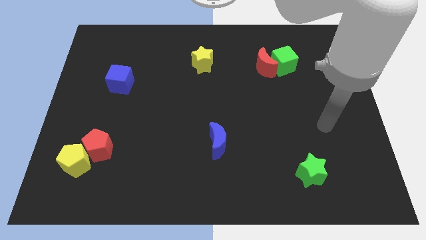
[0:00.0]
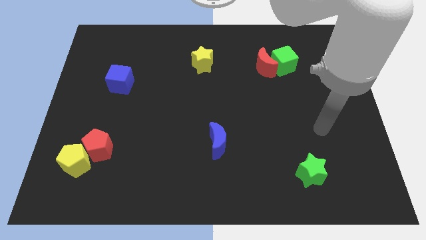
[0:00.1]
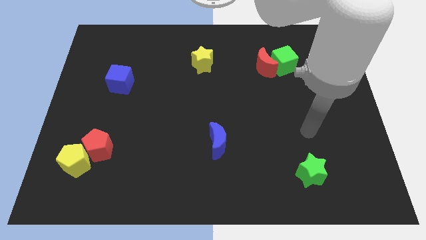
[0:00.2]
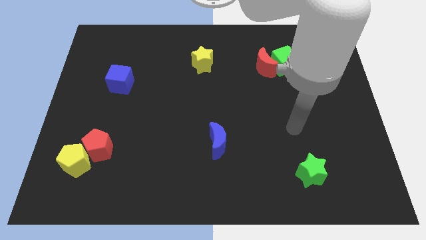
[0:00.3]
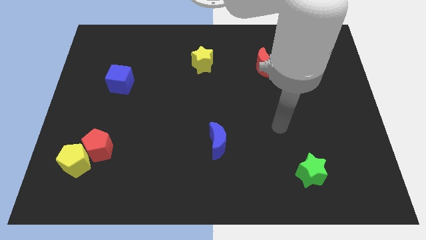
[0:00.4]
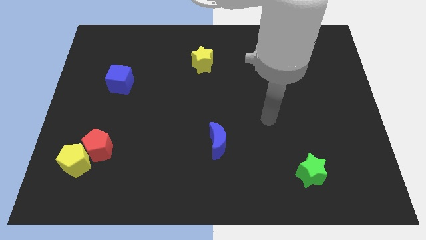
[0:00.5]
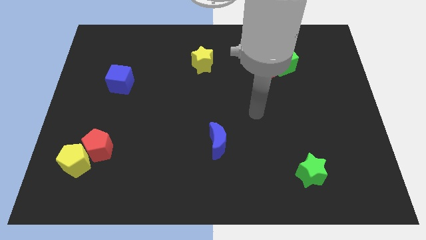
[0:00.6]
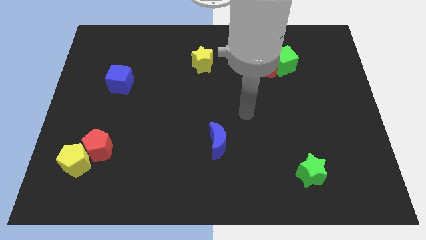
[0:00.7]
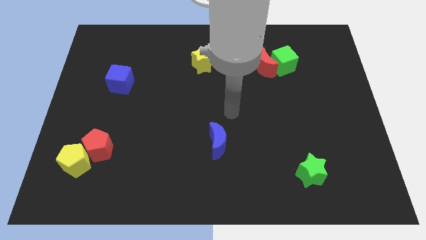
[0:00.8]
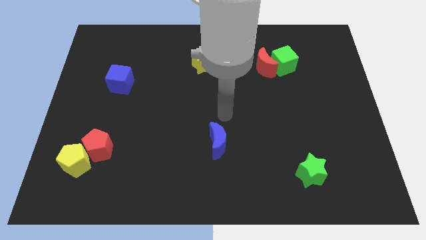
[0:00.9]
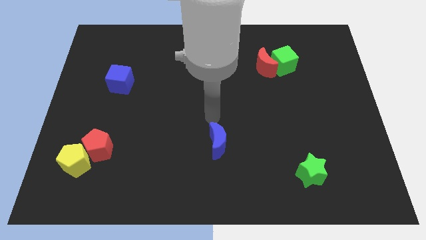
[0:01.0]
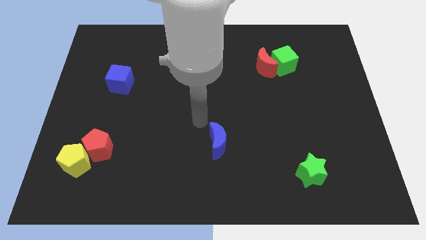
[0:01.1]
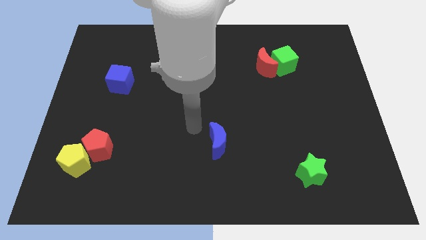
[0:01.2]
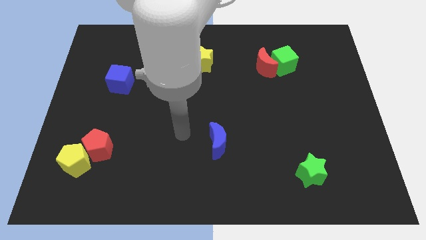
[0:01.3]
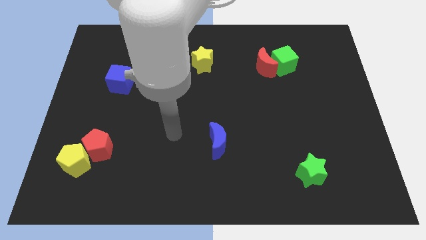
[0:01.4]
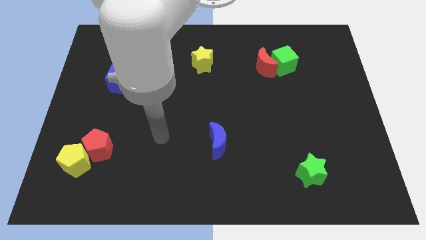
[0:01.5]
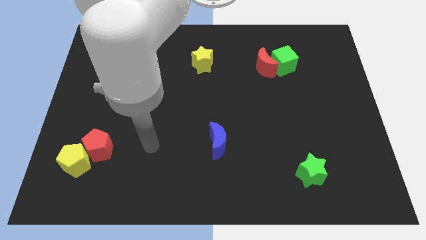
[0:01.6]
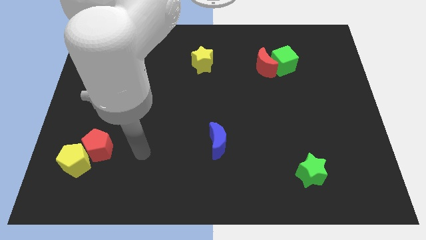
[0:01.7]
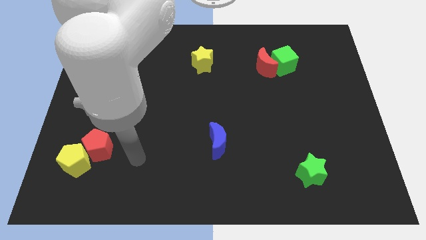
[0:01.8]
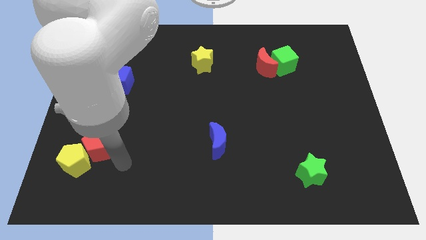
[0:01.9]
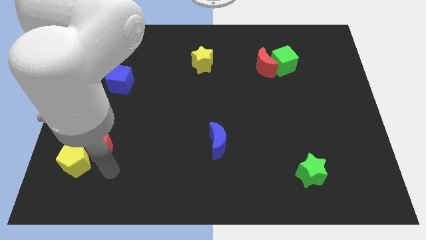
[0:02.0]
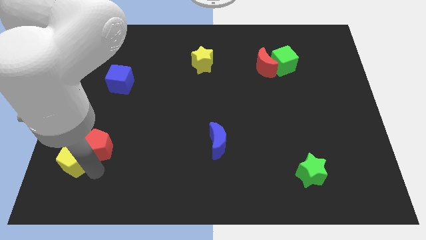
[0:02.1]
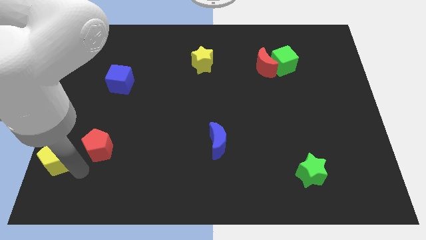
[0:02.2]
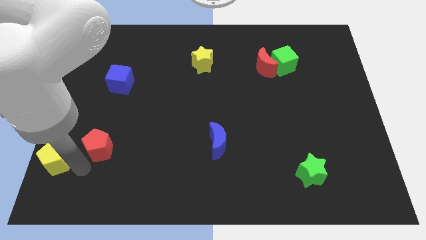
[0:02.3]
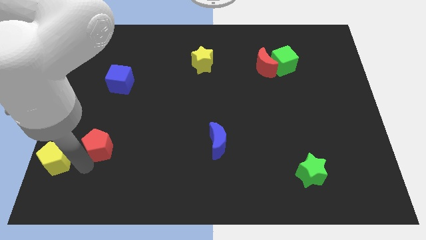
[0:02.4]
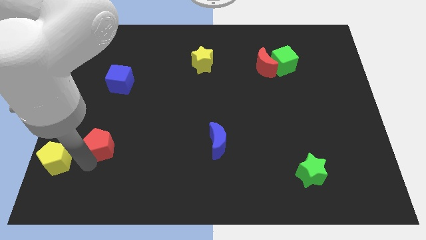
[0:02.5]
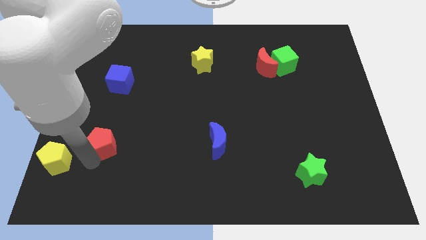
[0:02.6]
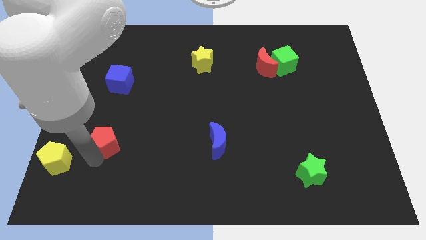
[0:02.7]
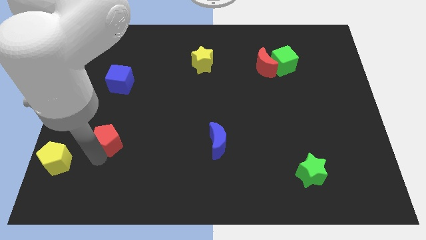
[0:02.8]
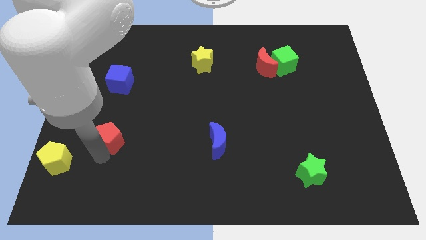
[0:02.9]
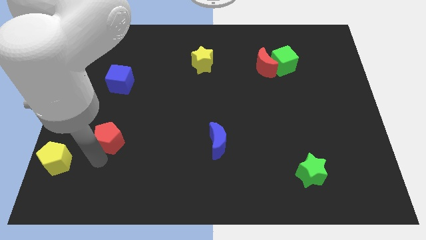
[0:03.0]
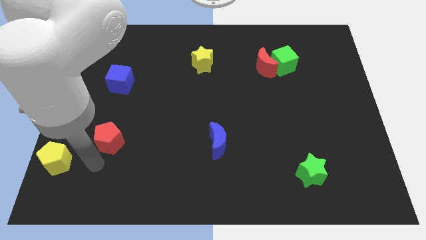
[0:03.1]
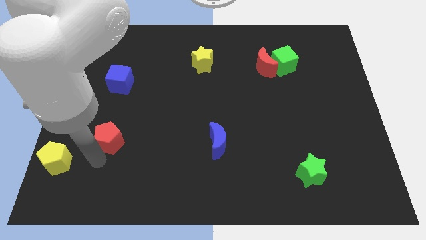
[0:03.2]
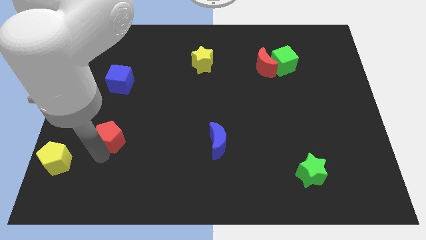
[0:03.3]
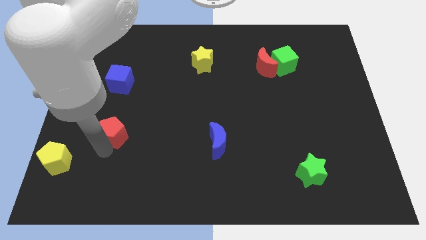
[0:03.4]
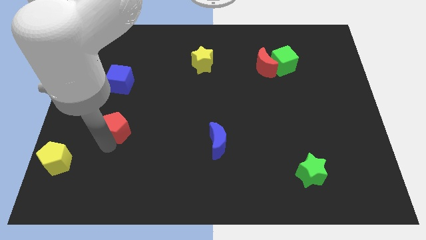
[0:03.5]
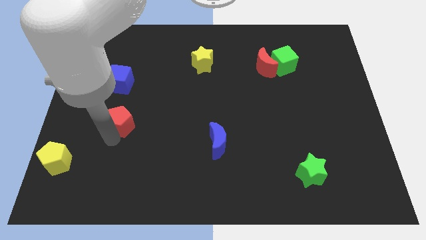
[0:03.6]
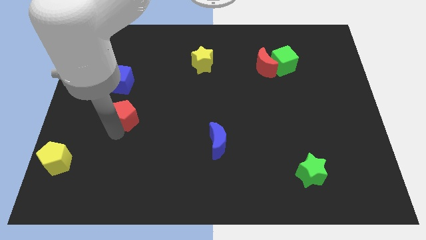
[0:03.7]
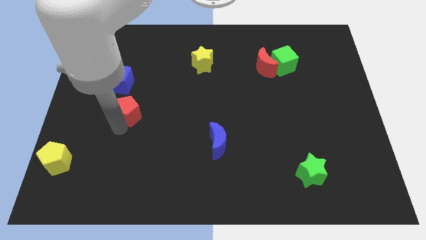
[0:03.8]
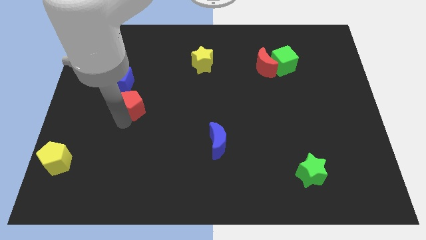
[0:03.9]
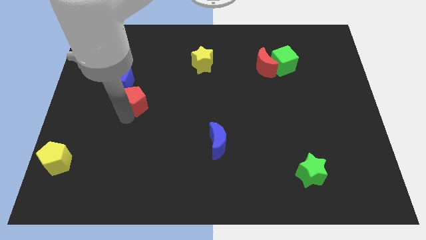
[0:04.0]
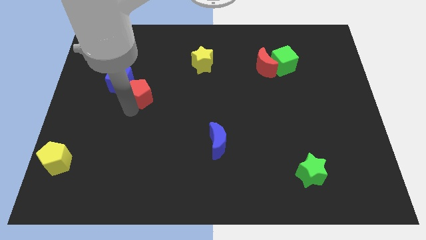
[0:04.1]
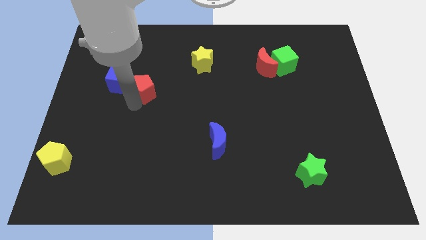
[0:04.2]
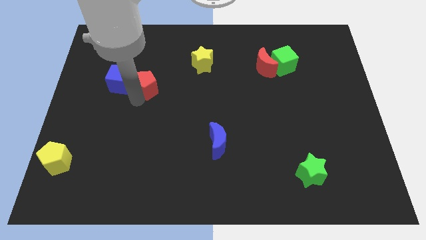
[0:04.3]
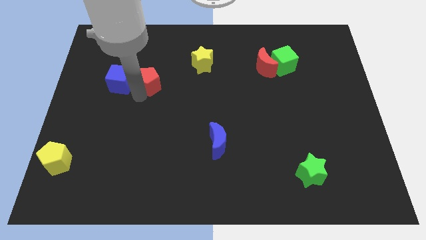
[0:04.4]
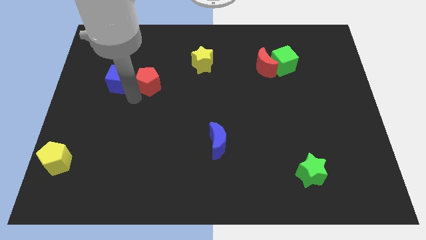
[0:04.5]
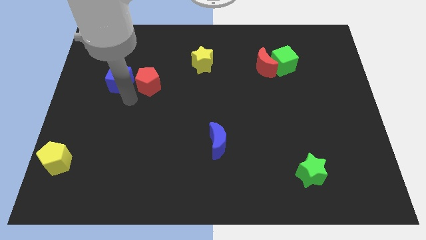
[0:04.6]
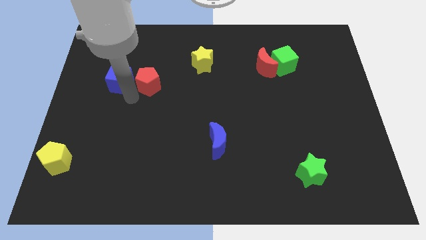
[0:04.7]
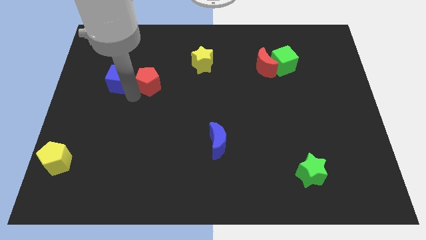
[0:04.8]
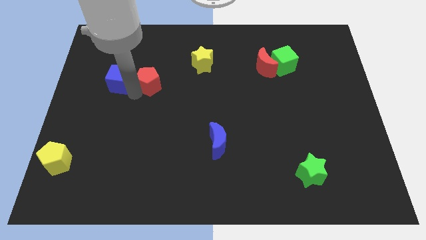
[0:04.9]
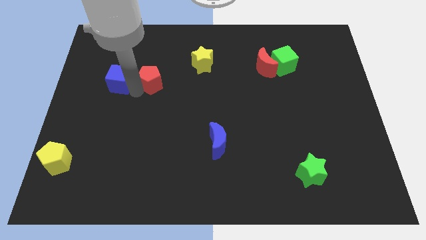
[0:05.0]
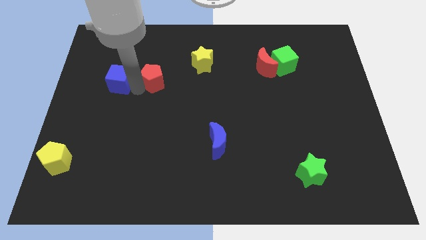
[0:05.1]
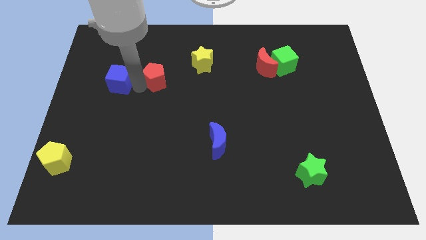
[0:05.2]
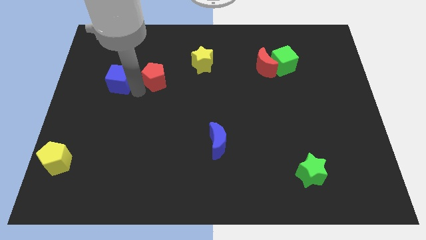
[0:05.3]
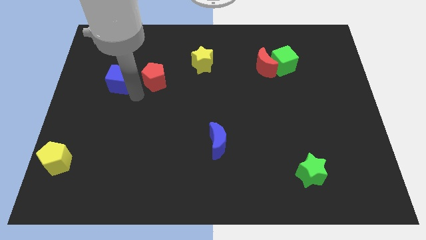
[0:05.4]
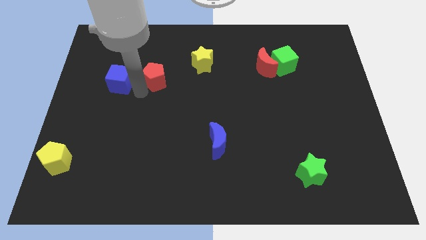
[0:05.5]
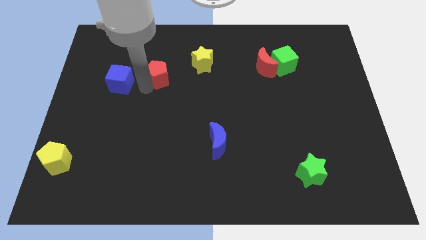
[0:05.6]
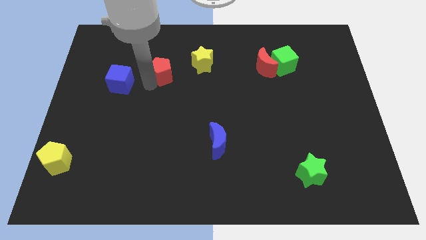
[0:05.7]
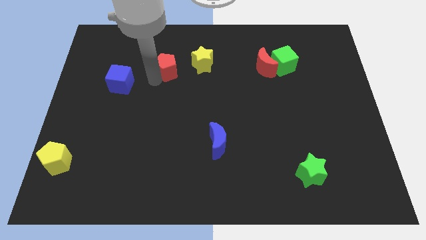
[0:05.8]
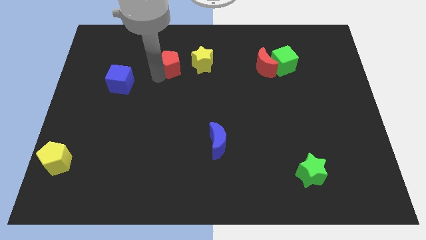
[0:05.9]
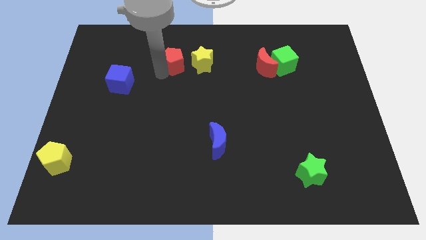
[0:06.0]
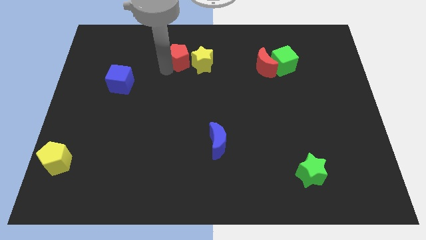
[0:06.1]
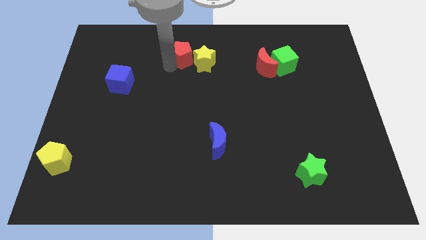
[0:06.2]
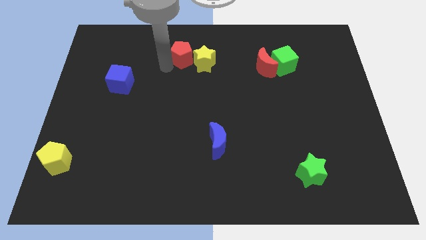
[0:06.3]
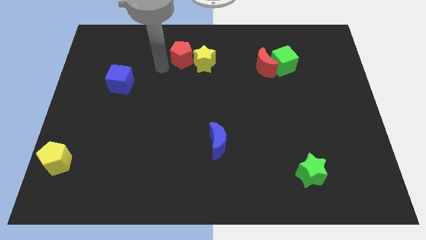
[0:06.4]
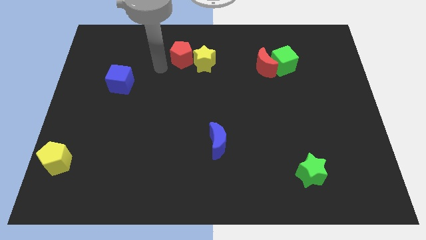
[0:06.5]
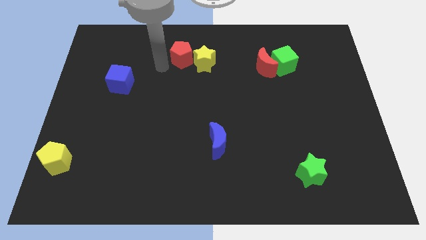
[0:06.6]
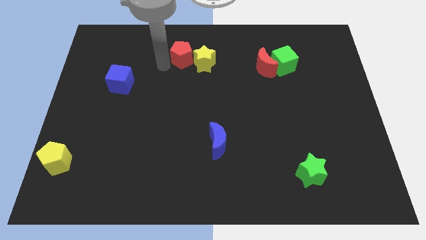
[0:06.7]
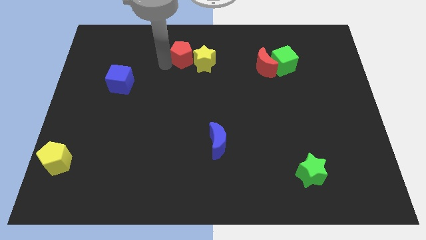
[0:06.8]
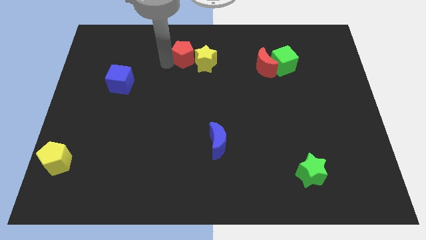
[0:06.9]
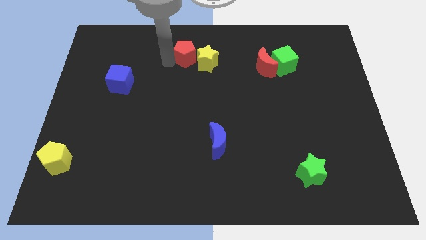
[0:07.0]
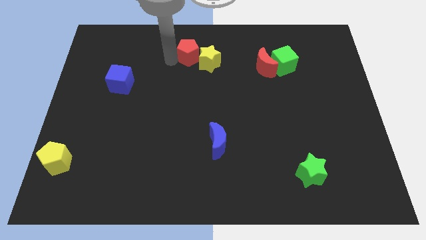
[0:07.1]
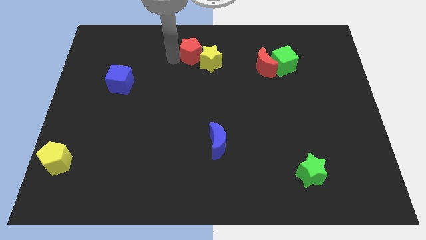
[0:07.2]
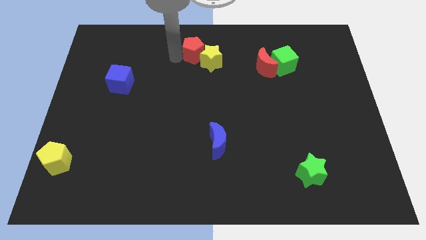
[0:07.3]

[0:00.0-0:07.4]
put the red pentagon to the towards your base

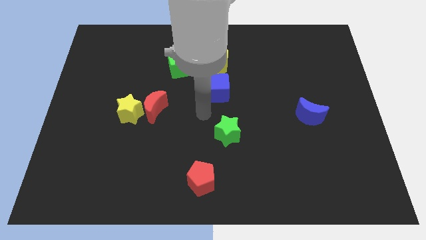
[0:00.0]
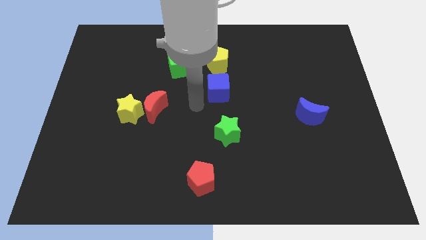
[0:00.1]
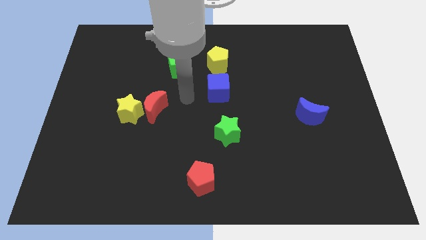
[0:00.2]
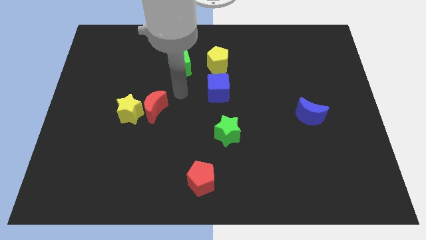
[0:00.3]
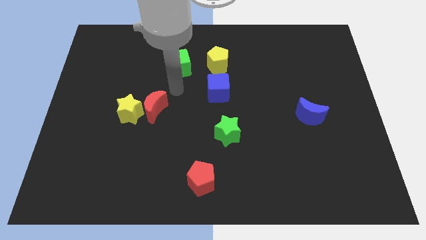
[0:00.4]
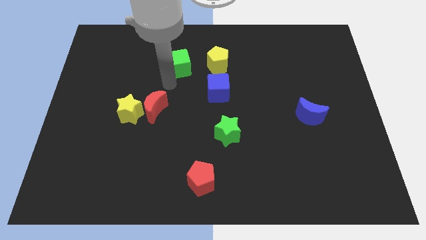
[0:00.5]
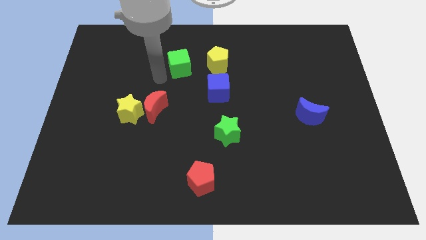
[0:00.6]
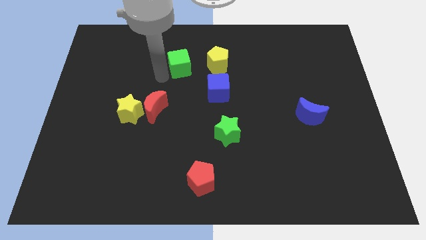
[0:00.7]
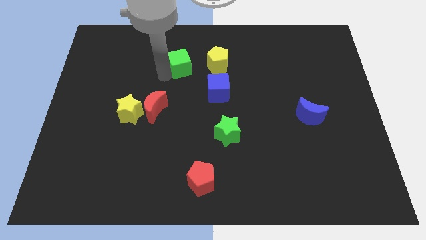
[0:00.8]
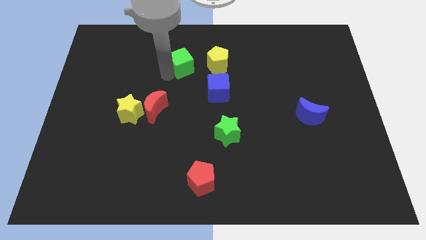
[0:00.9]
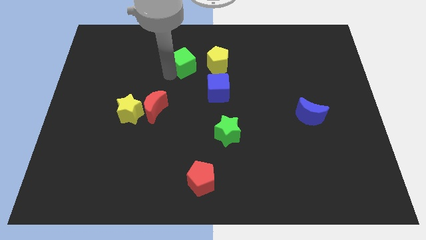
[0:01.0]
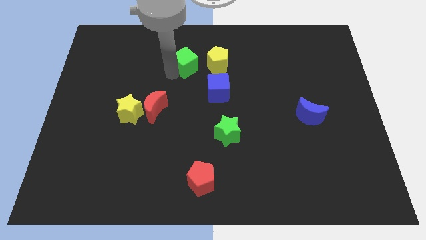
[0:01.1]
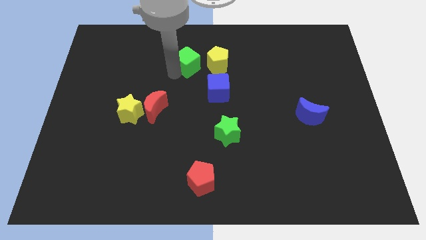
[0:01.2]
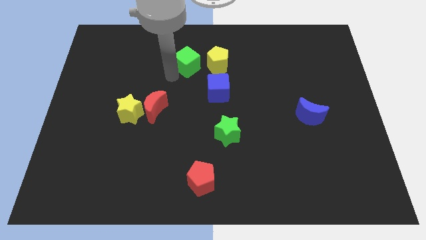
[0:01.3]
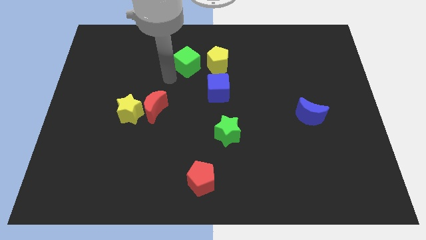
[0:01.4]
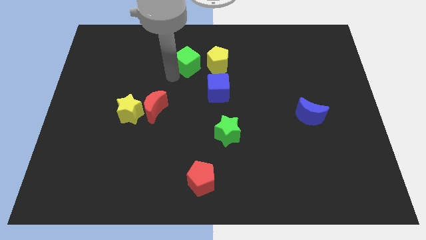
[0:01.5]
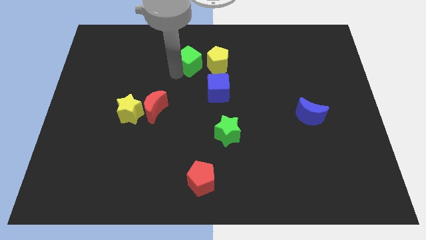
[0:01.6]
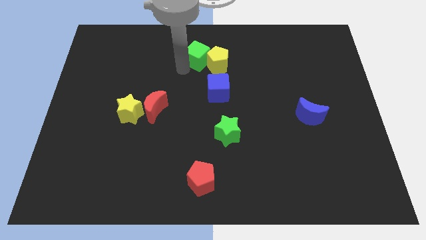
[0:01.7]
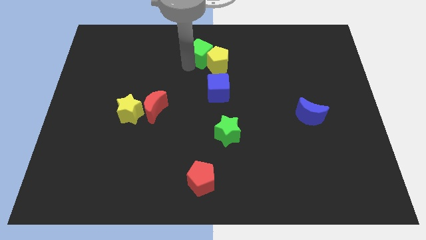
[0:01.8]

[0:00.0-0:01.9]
slide the green cube to the towards your base
